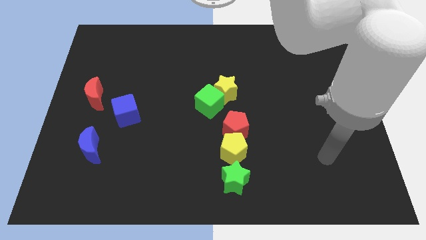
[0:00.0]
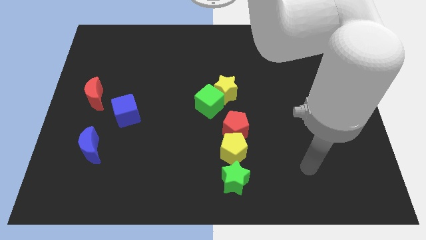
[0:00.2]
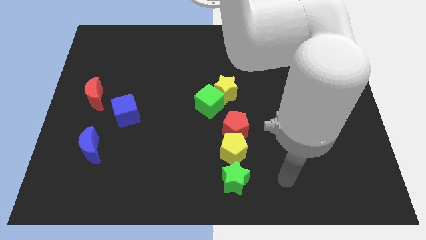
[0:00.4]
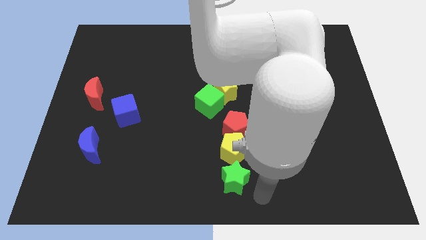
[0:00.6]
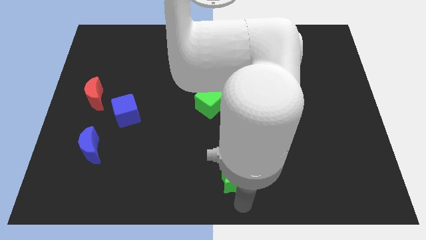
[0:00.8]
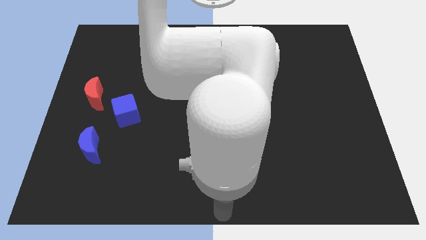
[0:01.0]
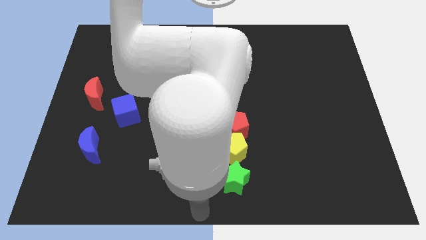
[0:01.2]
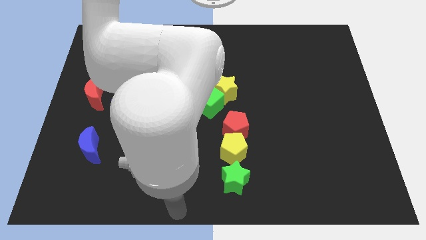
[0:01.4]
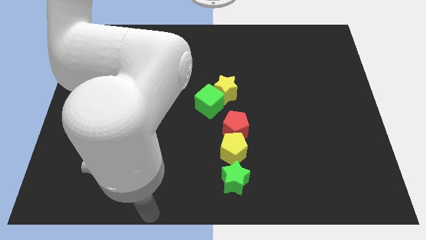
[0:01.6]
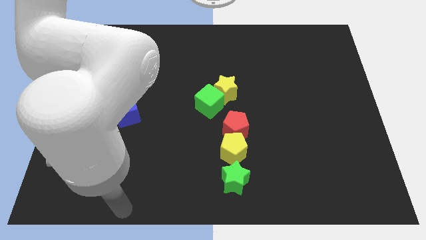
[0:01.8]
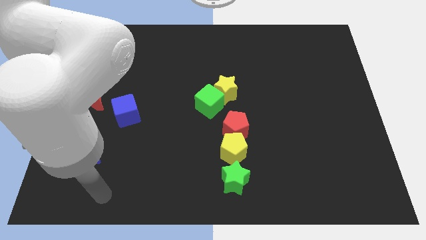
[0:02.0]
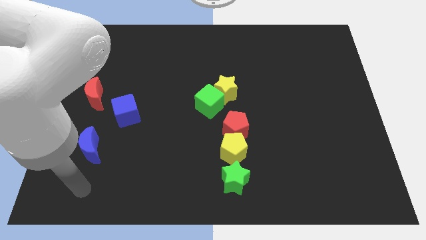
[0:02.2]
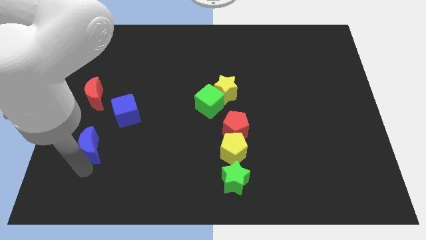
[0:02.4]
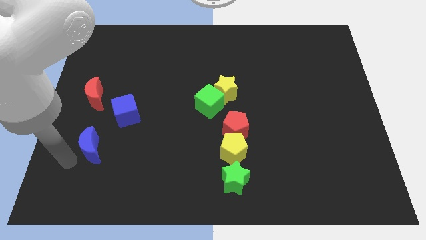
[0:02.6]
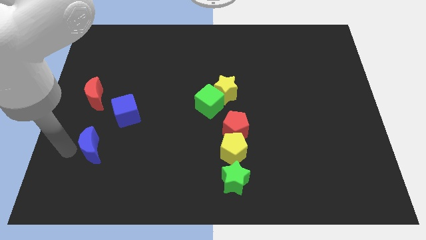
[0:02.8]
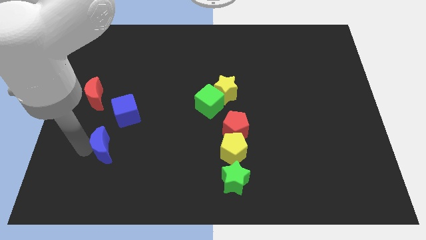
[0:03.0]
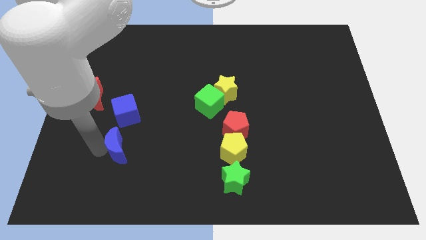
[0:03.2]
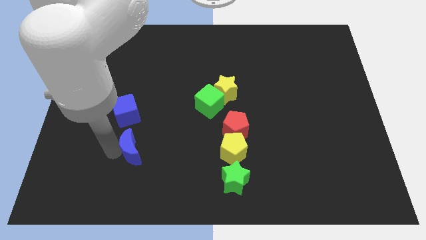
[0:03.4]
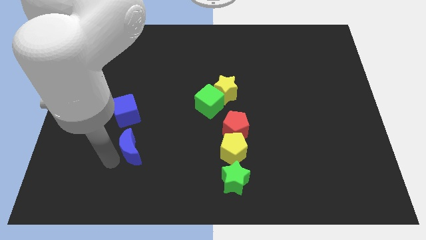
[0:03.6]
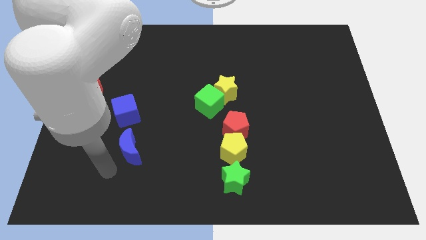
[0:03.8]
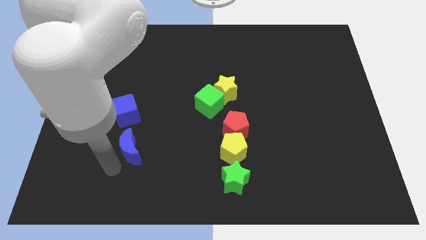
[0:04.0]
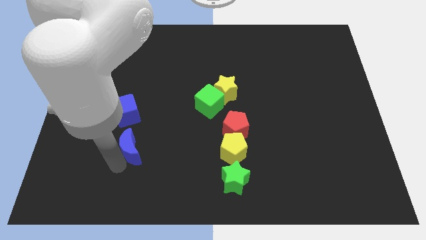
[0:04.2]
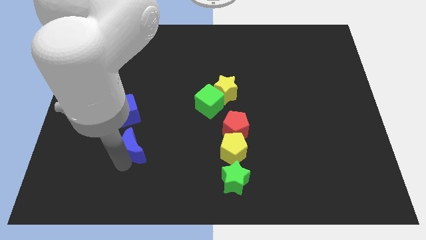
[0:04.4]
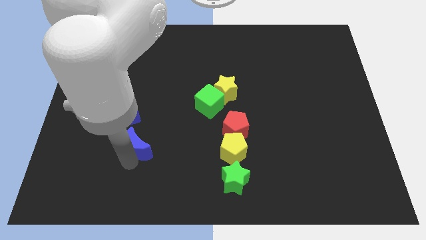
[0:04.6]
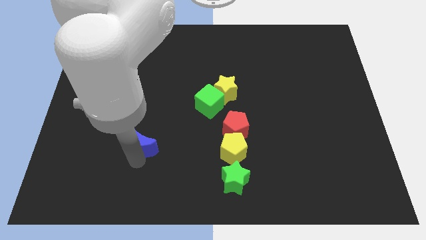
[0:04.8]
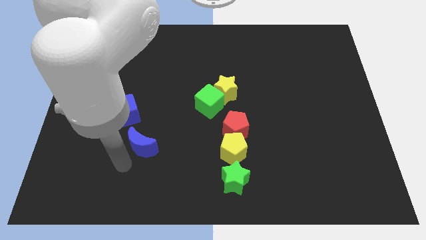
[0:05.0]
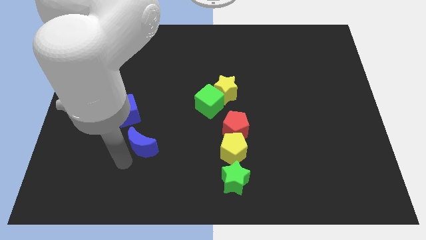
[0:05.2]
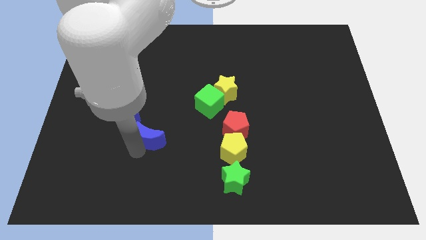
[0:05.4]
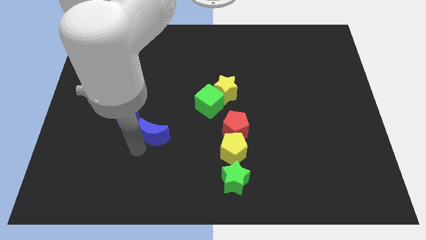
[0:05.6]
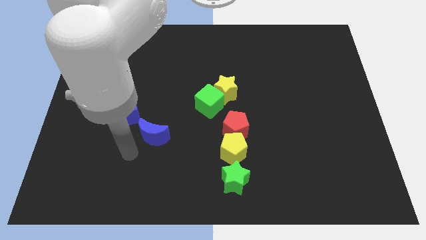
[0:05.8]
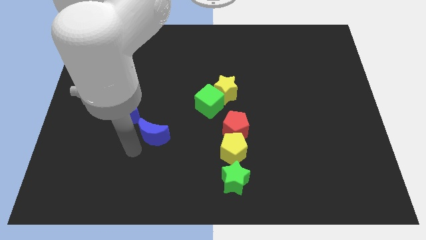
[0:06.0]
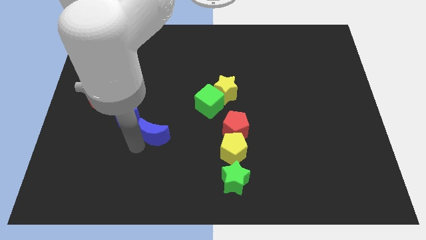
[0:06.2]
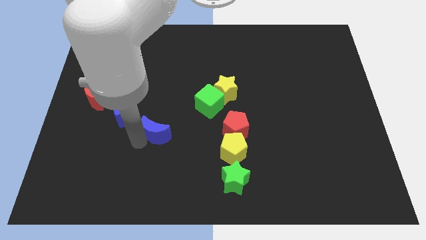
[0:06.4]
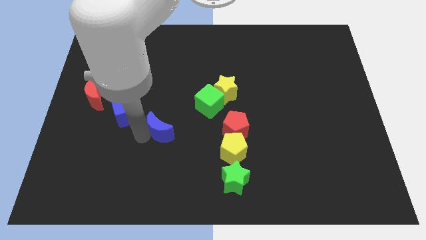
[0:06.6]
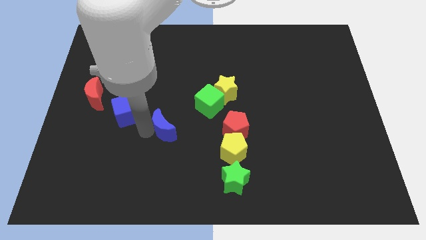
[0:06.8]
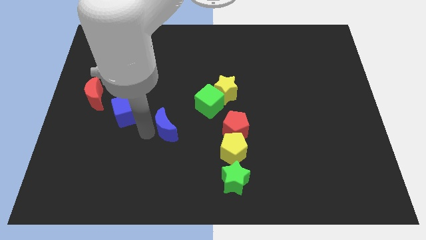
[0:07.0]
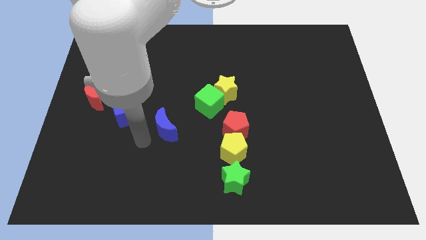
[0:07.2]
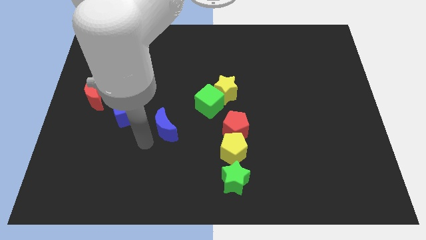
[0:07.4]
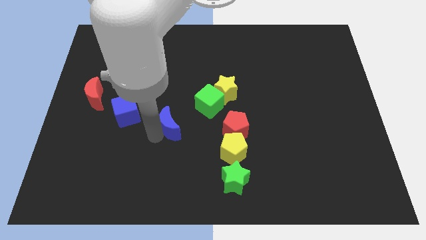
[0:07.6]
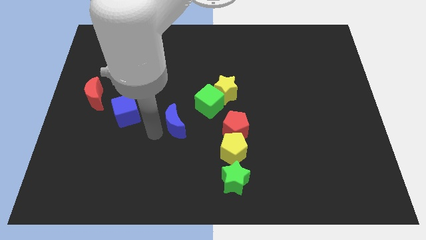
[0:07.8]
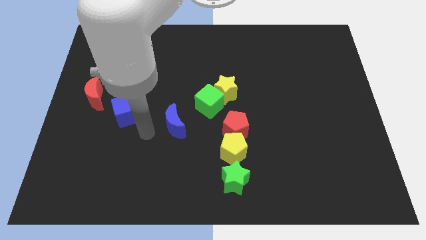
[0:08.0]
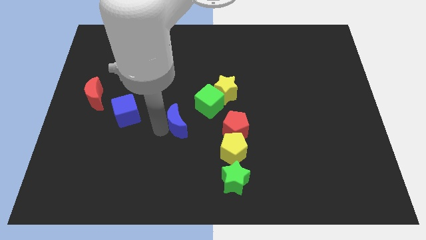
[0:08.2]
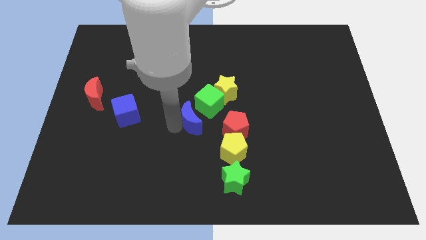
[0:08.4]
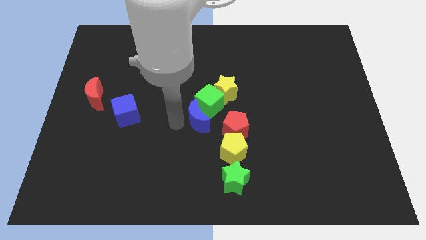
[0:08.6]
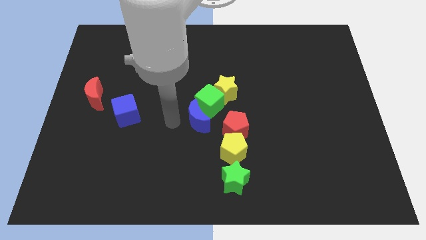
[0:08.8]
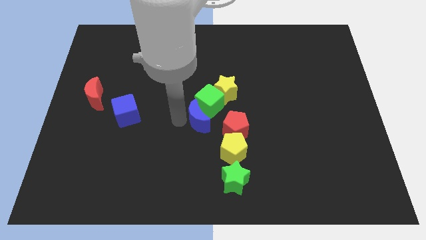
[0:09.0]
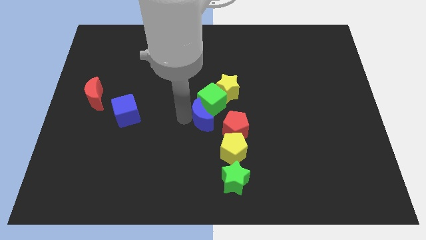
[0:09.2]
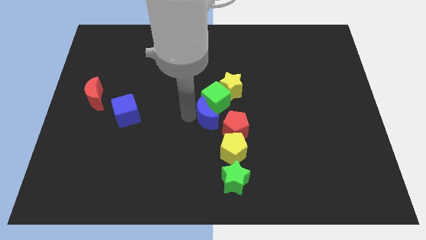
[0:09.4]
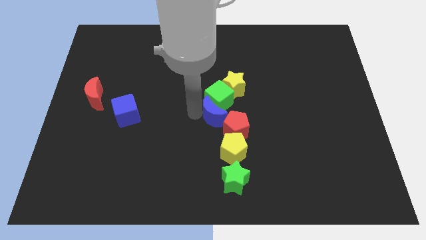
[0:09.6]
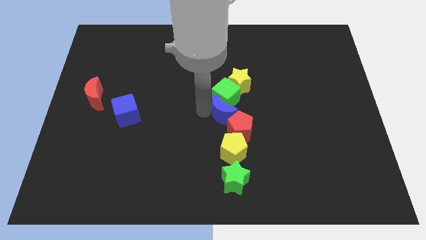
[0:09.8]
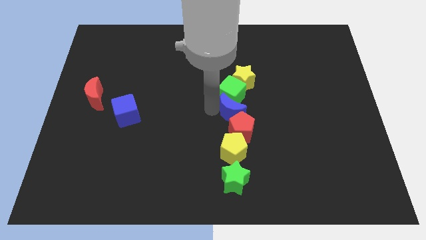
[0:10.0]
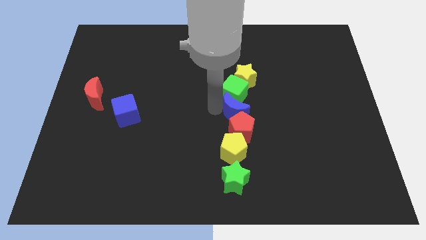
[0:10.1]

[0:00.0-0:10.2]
put the blue moon to the top right side of the red pentagon

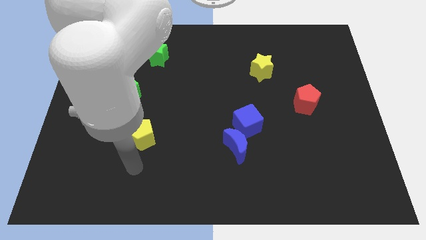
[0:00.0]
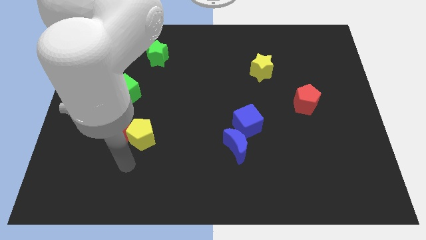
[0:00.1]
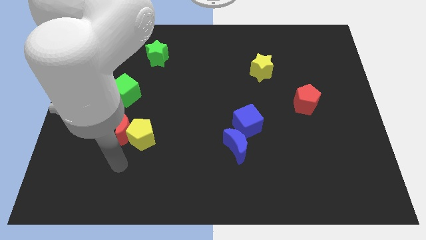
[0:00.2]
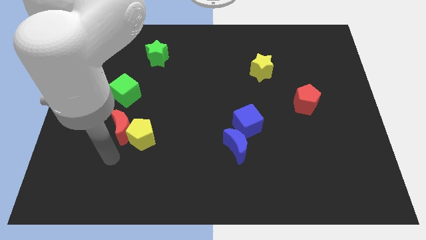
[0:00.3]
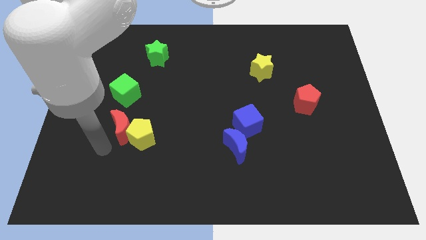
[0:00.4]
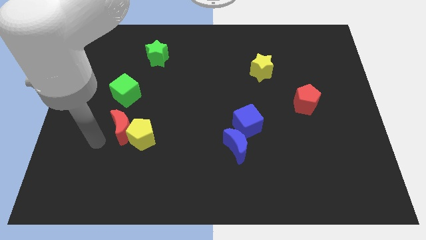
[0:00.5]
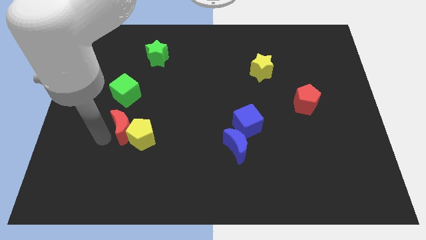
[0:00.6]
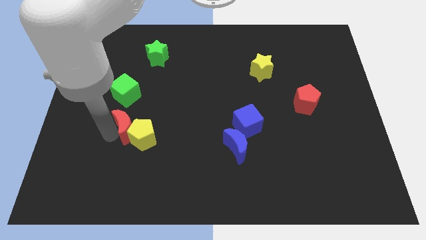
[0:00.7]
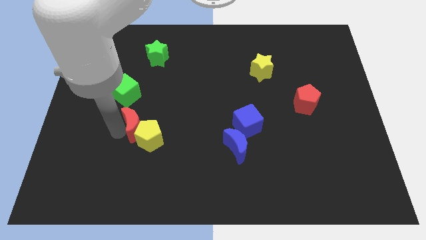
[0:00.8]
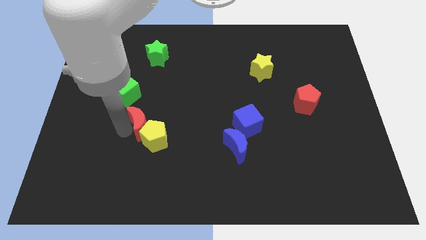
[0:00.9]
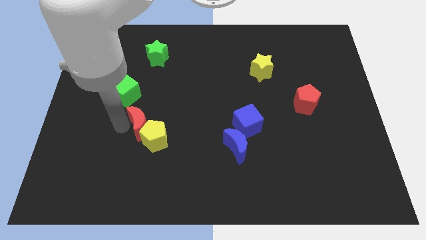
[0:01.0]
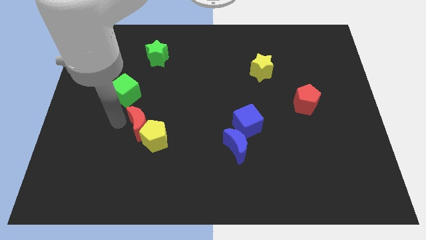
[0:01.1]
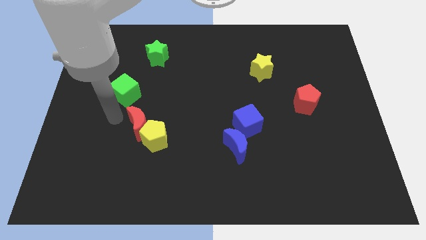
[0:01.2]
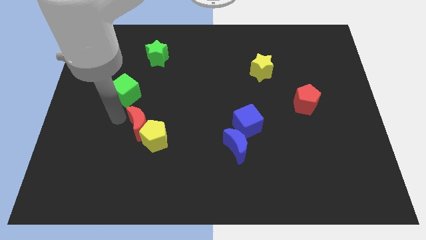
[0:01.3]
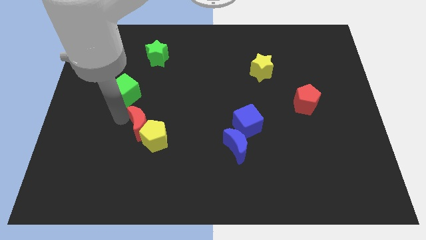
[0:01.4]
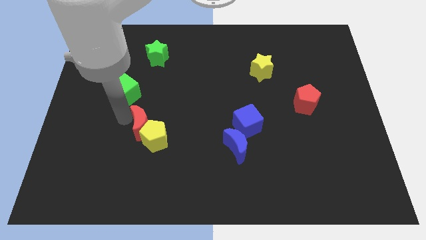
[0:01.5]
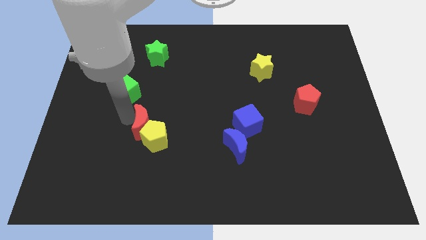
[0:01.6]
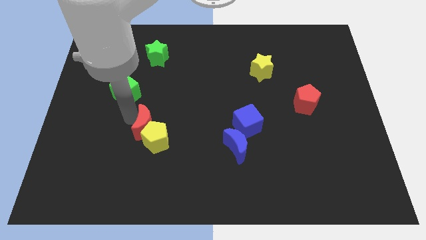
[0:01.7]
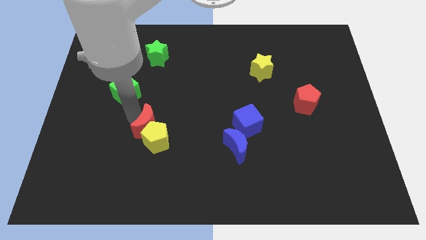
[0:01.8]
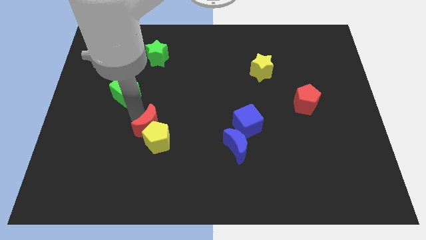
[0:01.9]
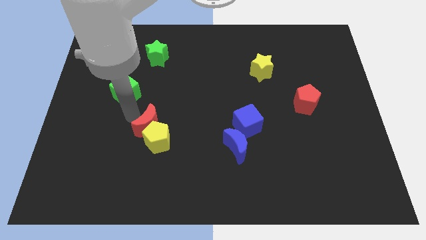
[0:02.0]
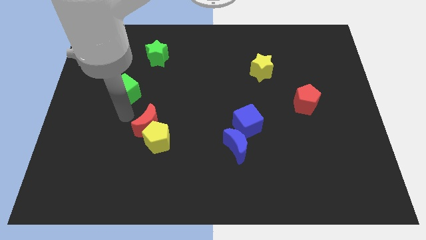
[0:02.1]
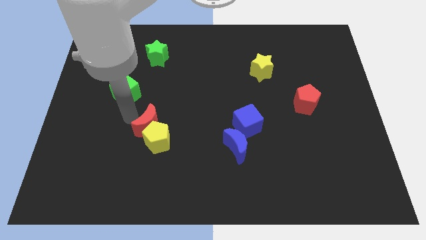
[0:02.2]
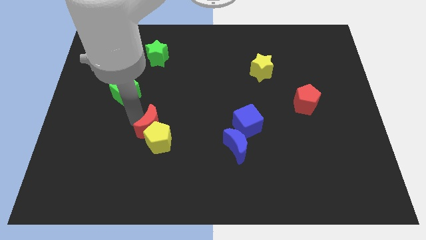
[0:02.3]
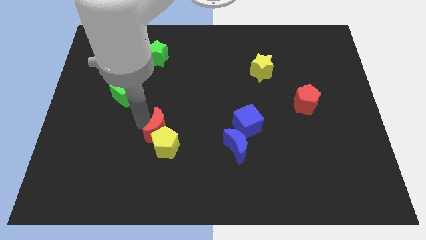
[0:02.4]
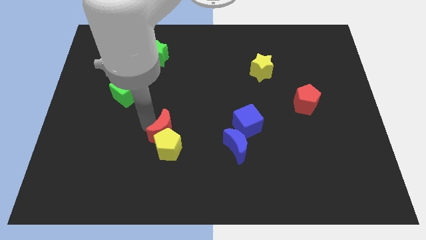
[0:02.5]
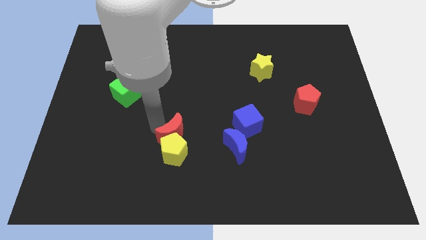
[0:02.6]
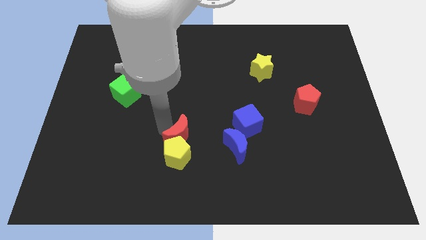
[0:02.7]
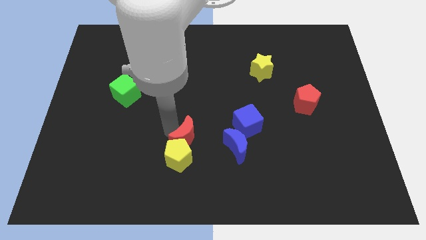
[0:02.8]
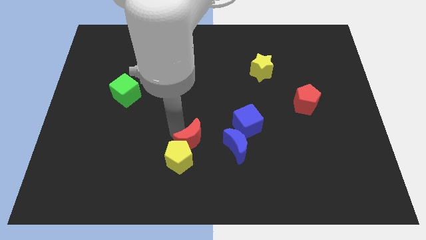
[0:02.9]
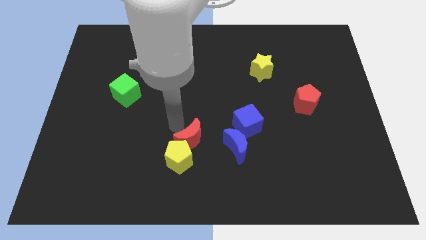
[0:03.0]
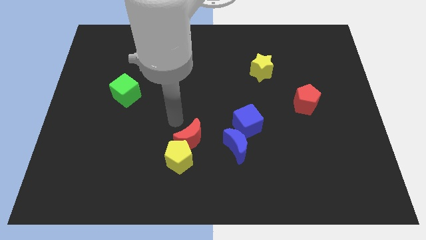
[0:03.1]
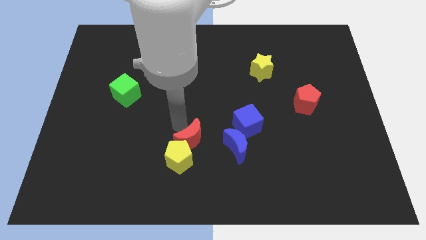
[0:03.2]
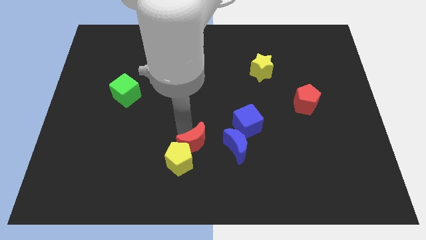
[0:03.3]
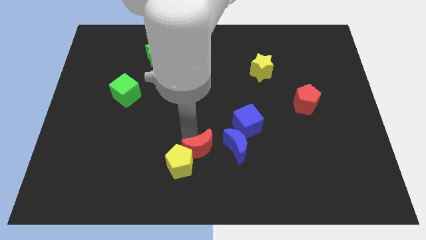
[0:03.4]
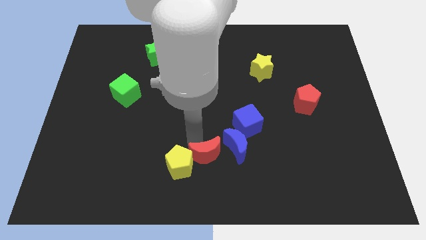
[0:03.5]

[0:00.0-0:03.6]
slide the red moon to the bottom left of the blue moon
